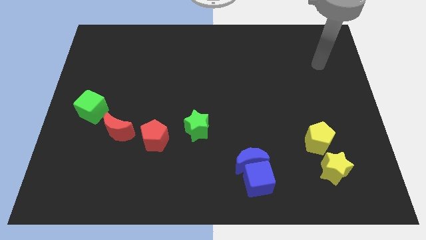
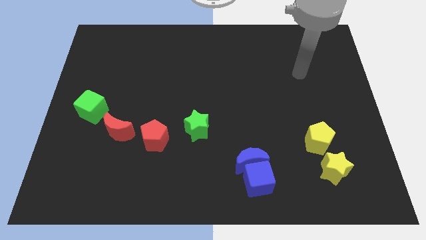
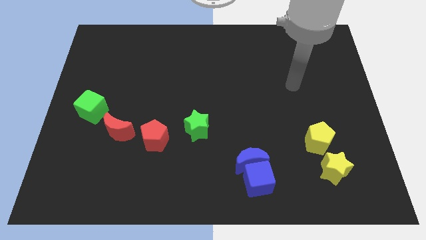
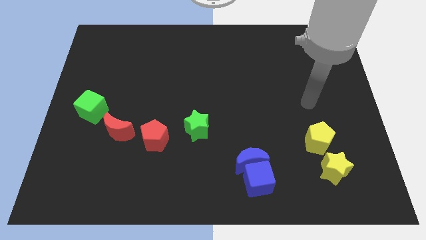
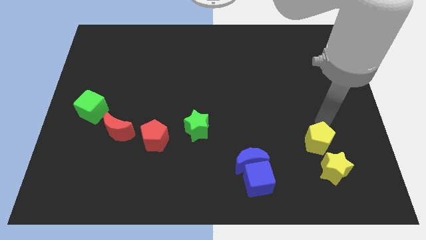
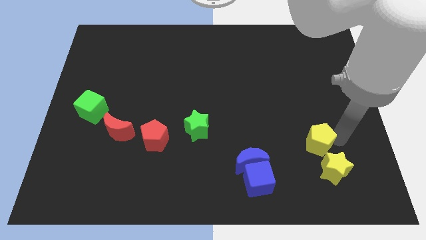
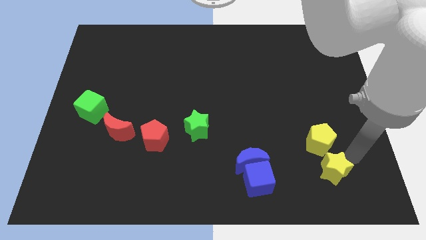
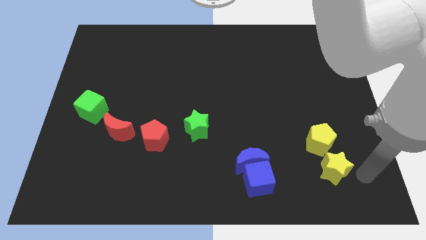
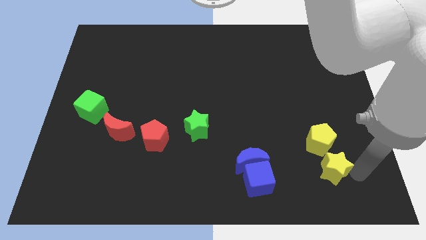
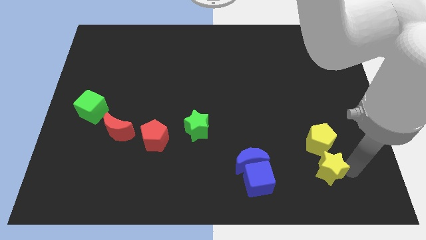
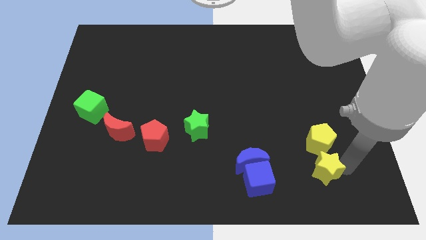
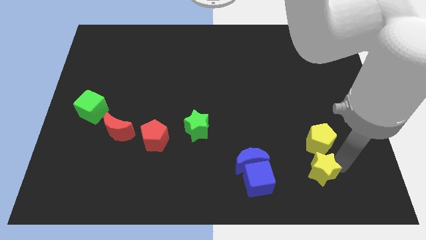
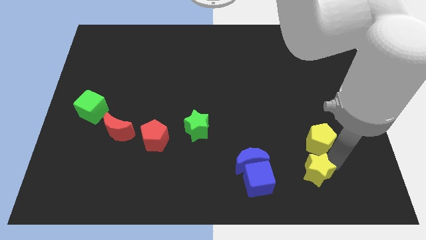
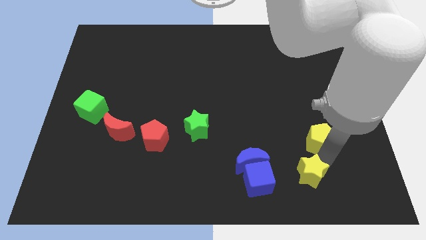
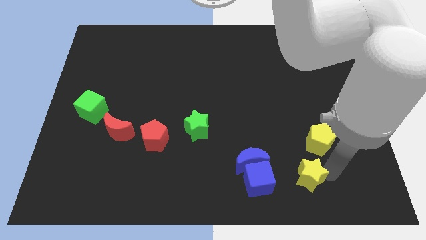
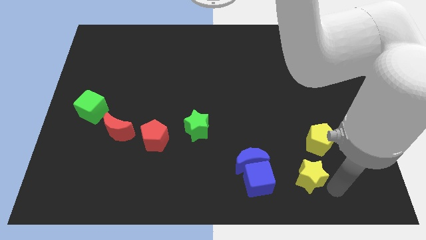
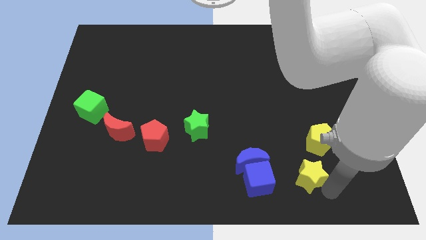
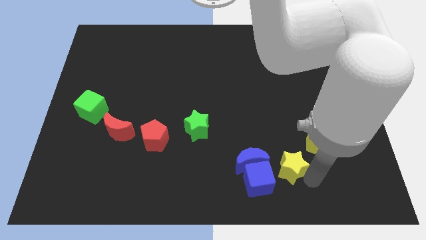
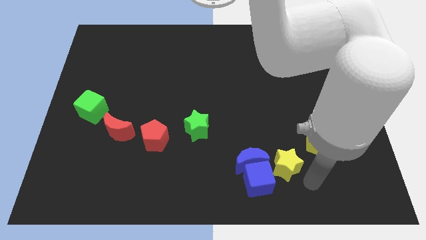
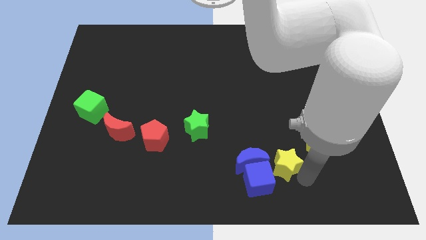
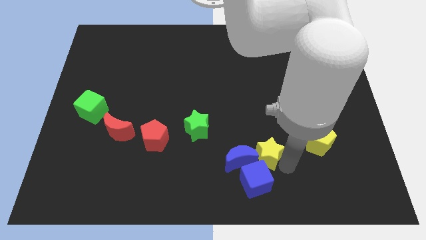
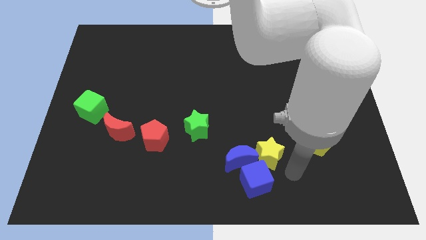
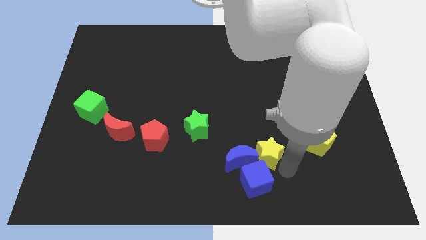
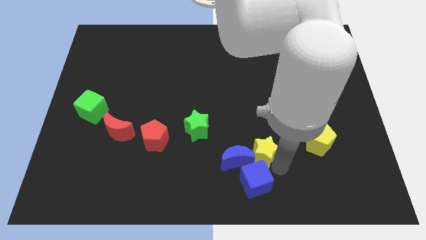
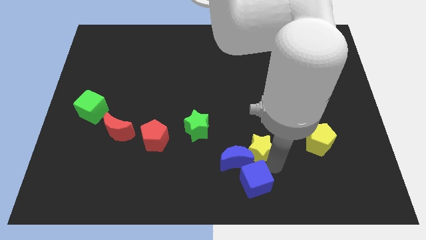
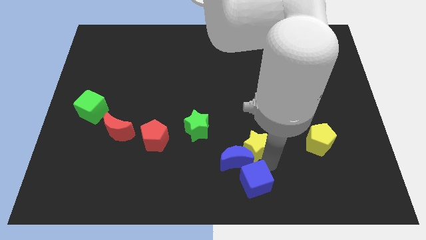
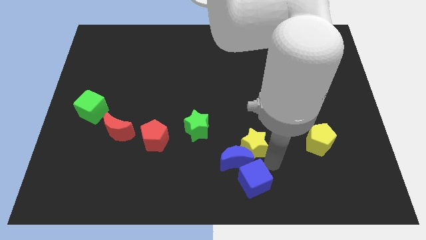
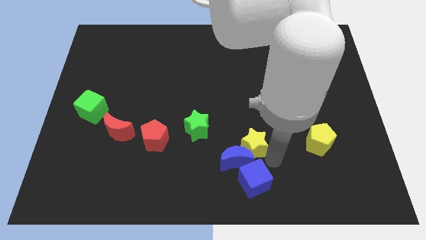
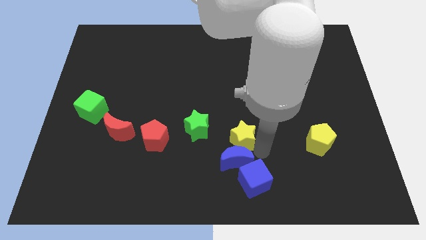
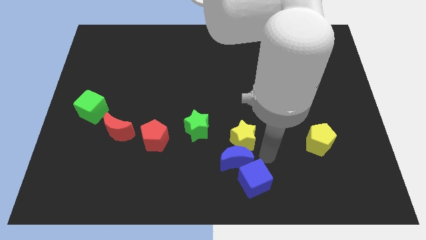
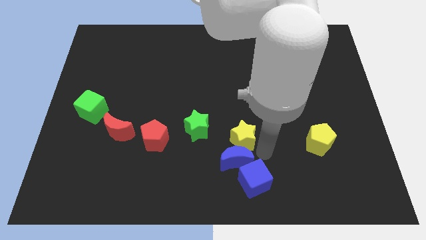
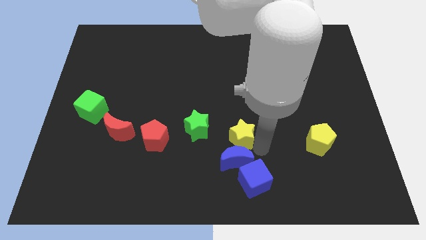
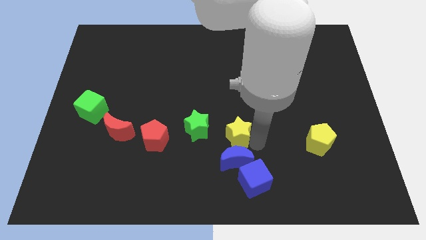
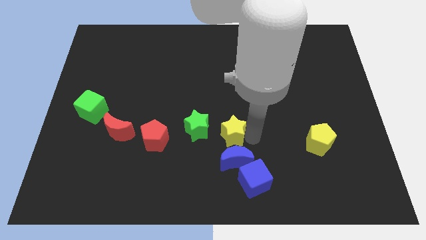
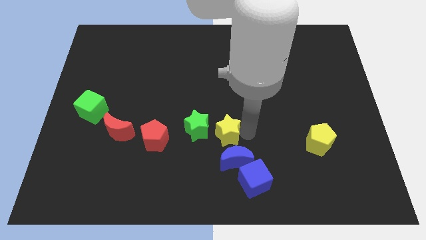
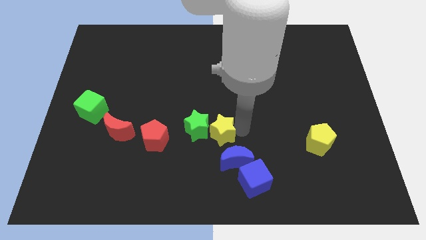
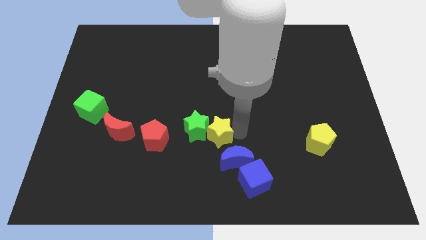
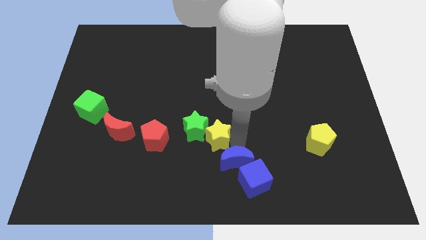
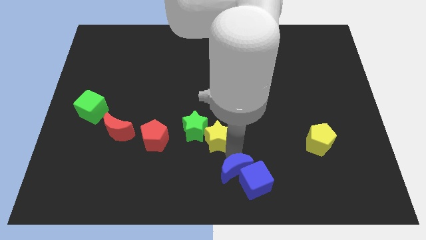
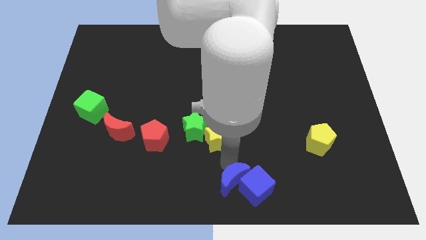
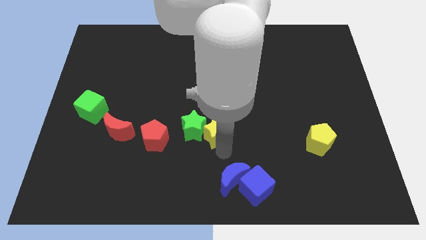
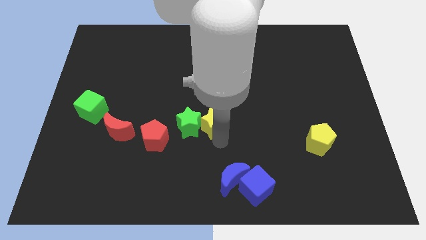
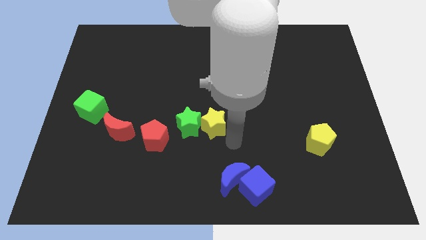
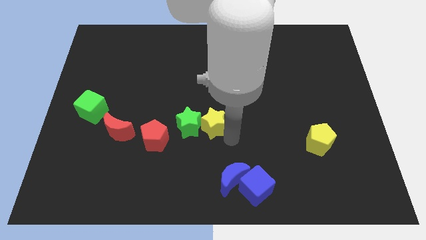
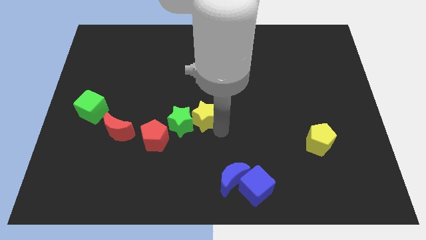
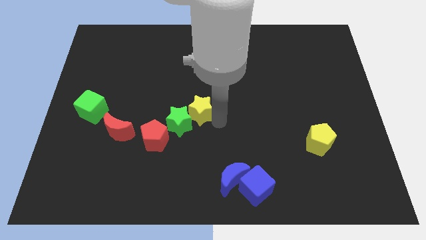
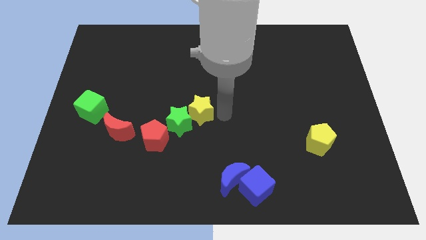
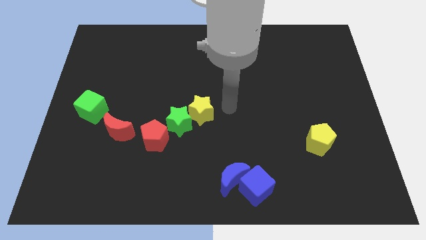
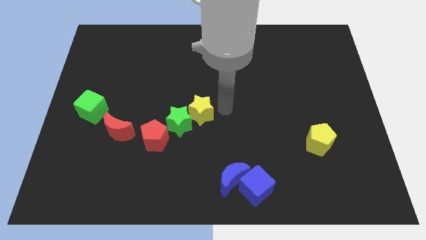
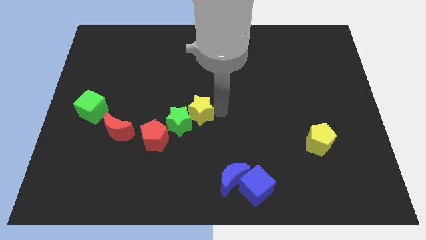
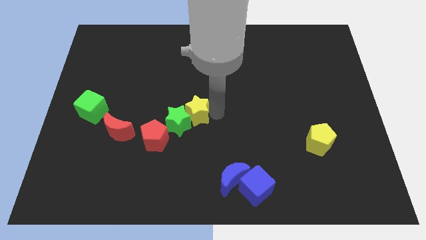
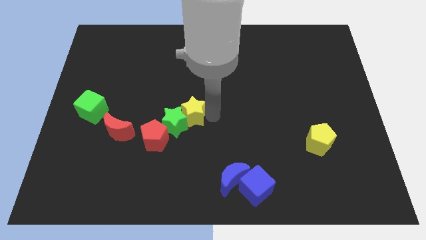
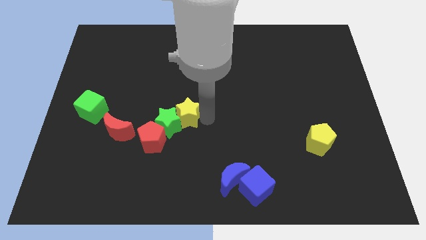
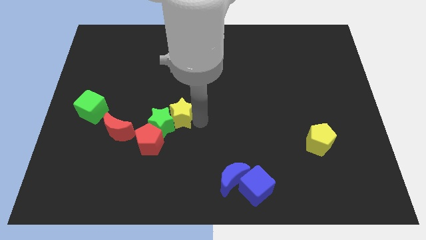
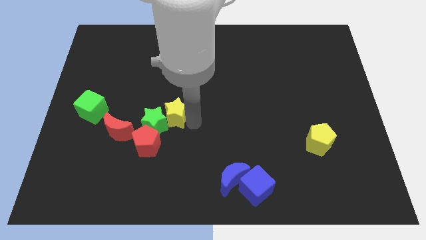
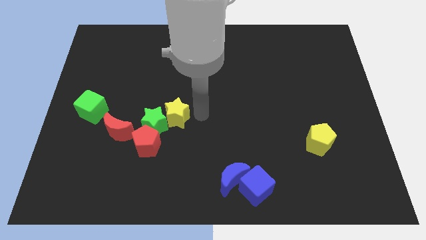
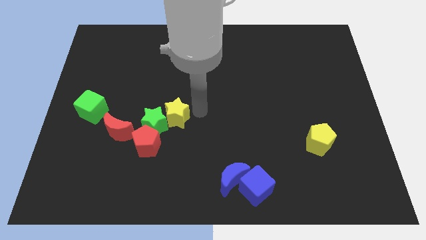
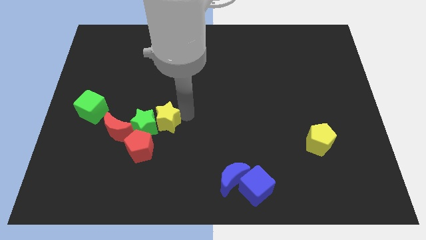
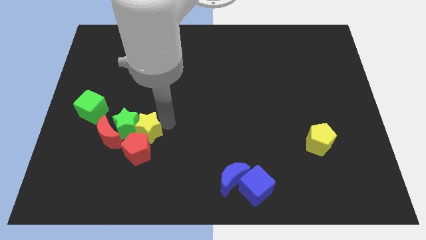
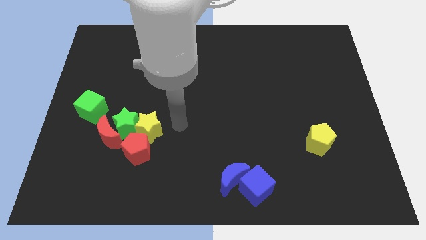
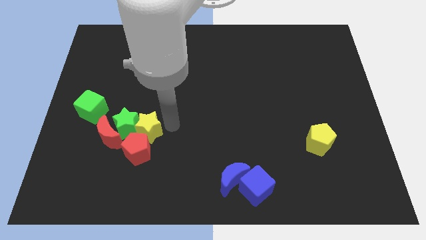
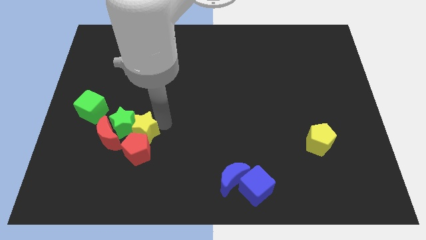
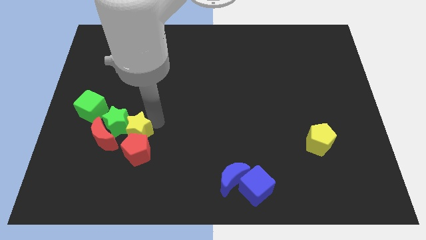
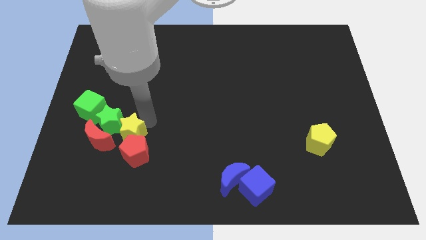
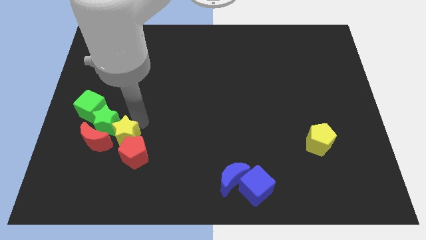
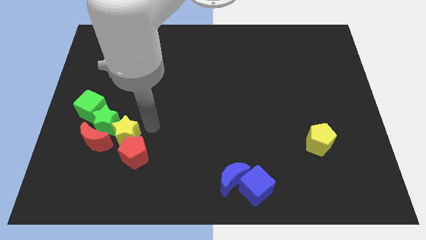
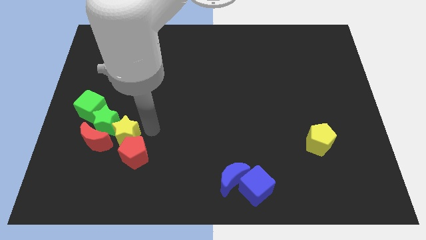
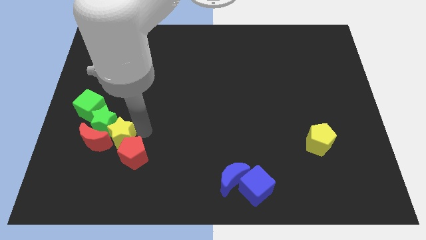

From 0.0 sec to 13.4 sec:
move the yellow star to the red moon

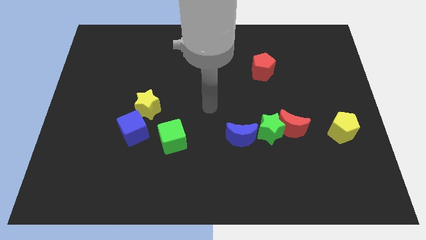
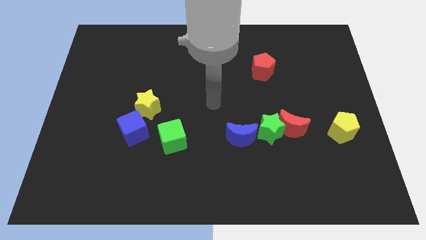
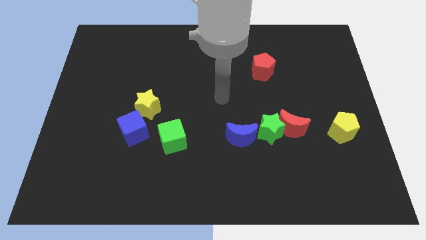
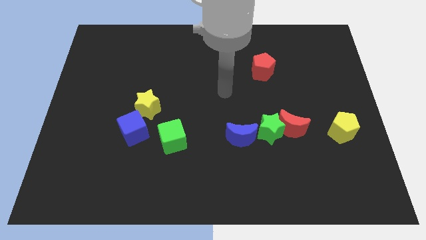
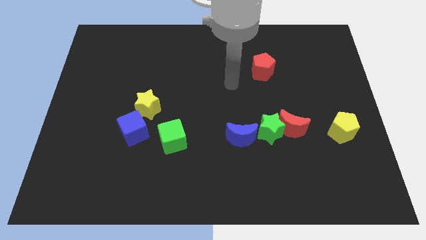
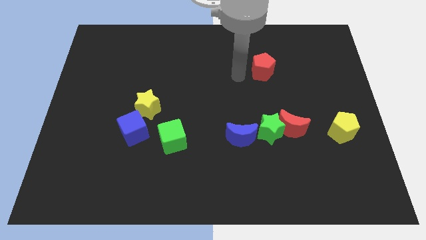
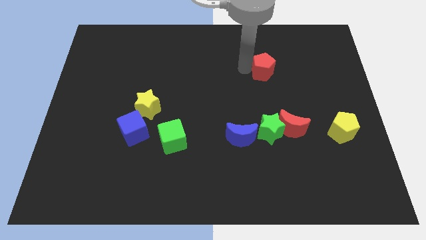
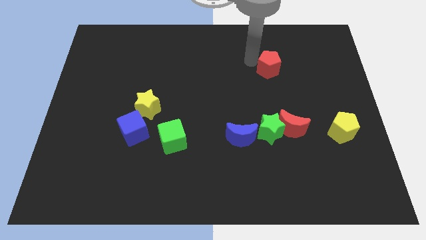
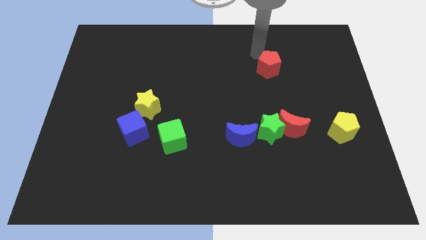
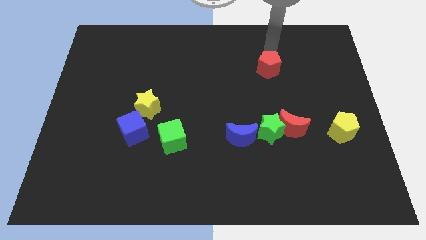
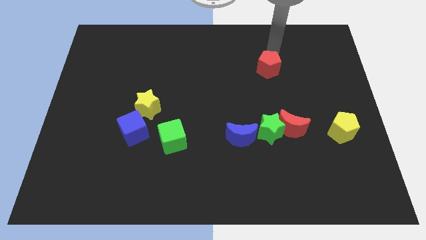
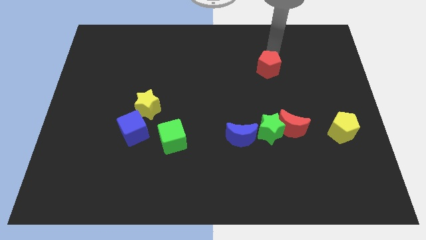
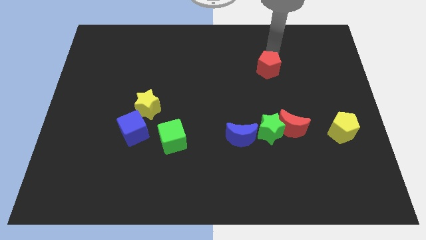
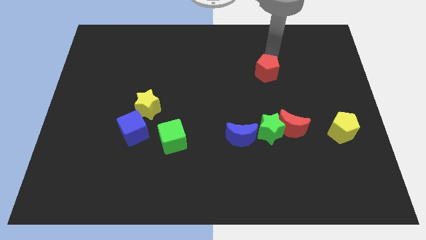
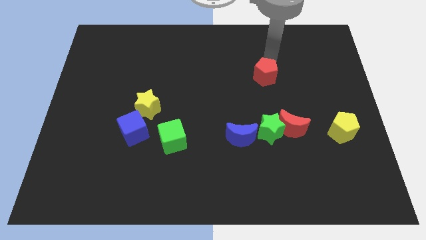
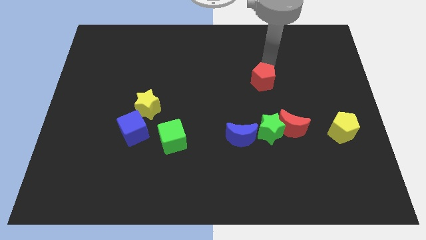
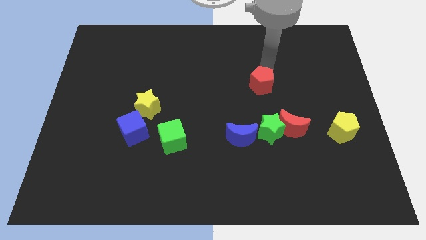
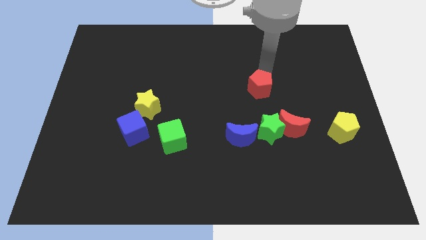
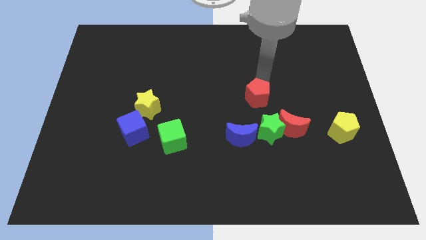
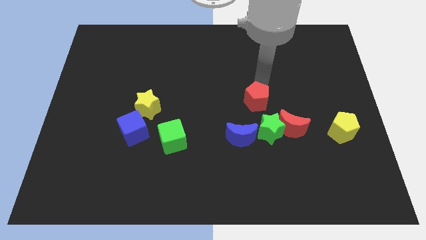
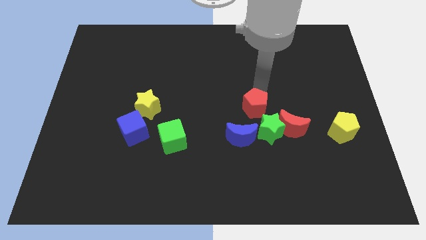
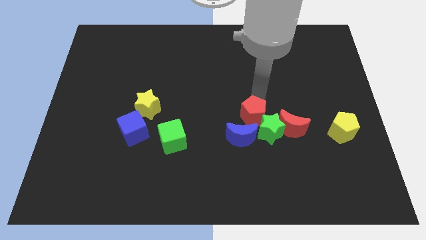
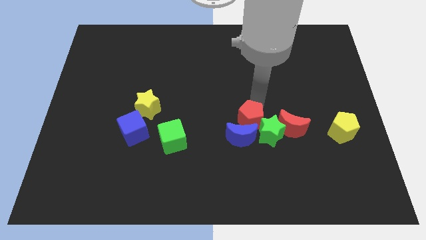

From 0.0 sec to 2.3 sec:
push the red pentagon next to the blue moon
